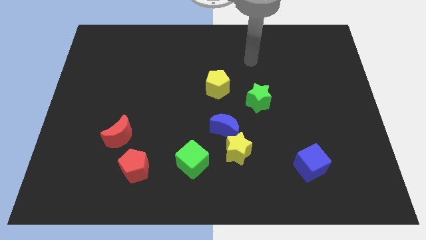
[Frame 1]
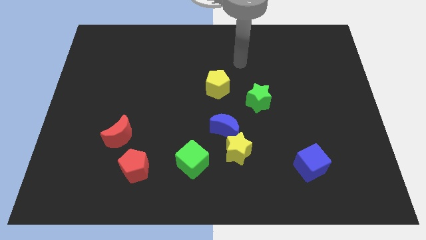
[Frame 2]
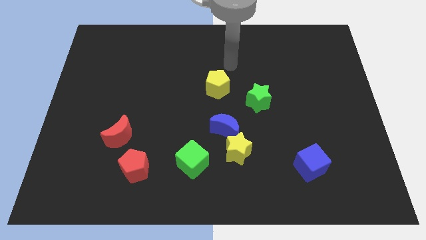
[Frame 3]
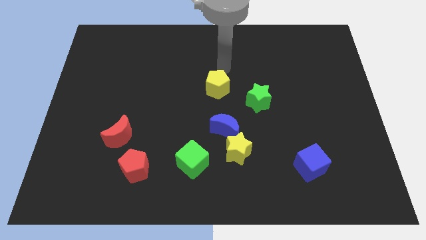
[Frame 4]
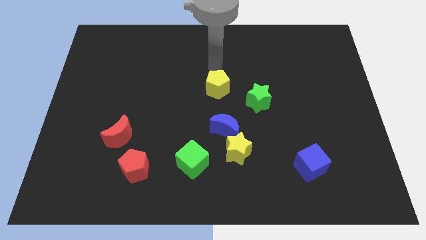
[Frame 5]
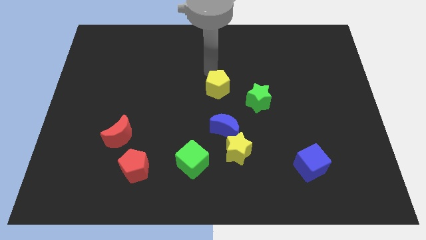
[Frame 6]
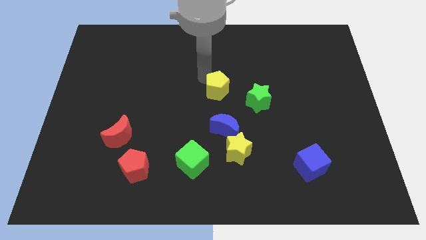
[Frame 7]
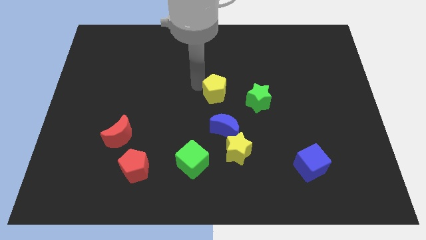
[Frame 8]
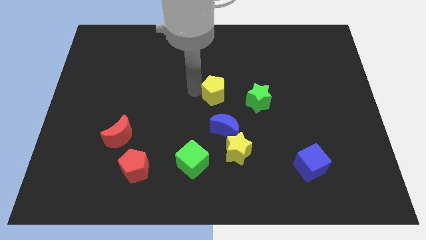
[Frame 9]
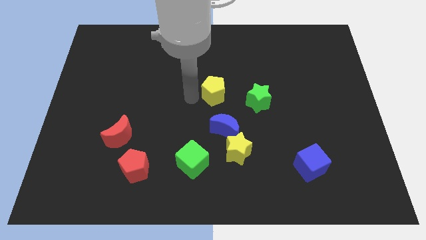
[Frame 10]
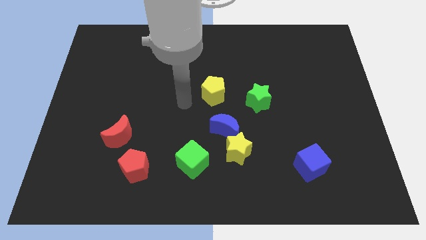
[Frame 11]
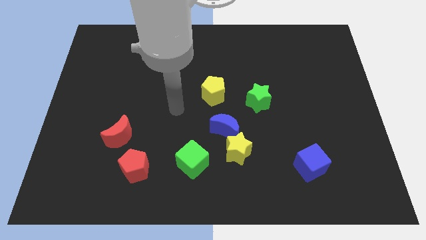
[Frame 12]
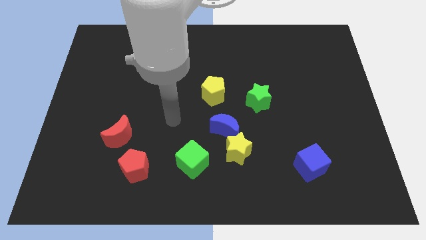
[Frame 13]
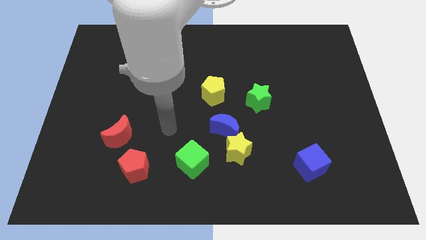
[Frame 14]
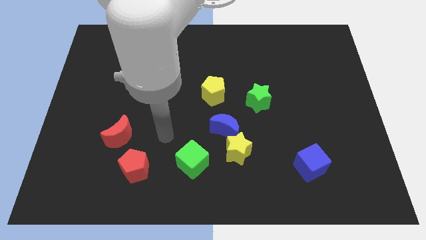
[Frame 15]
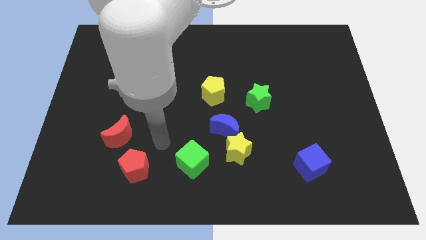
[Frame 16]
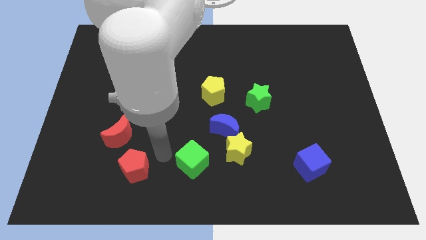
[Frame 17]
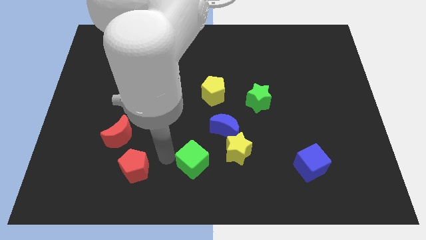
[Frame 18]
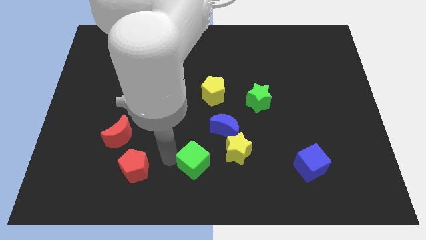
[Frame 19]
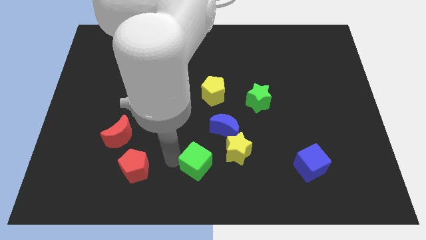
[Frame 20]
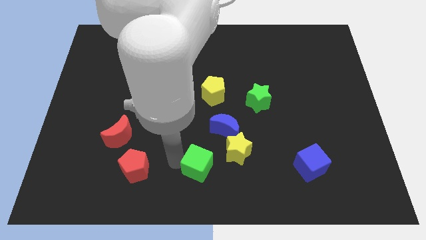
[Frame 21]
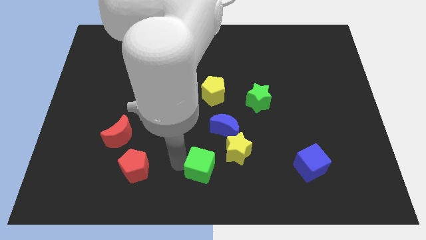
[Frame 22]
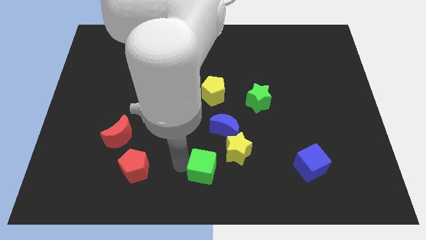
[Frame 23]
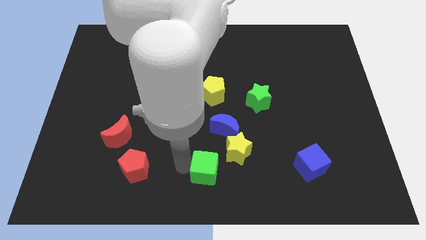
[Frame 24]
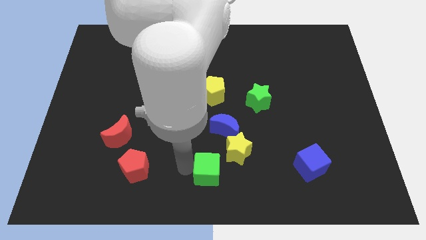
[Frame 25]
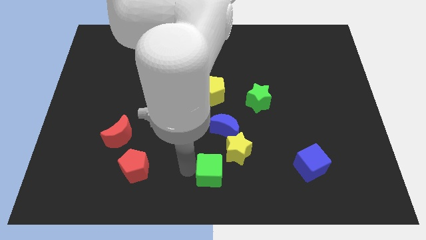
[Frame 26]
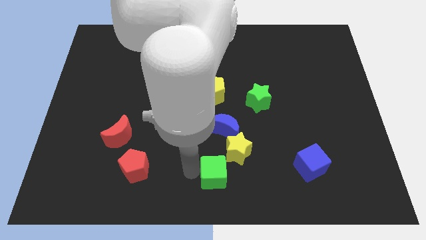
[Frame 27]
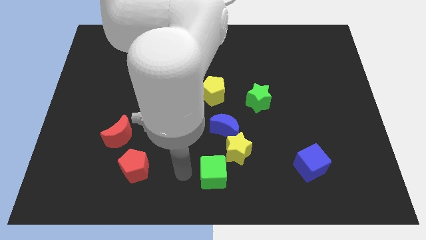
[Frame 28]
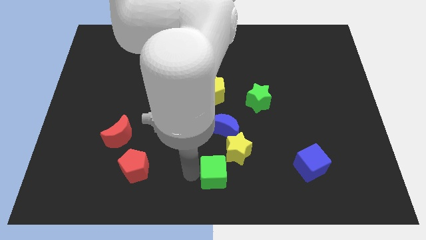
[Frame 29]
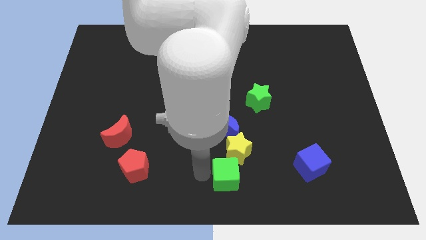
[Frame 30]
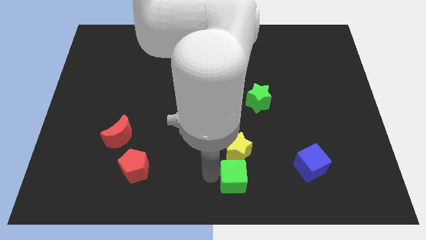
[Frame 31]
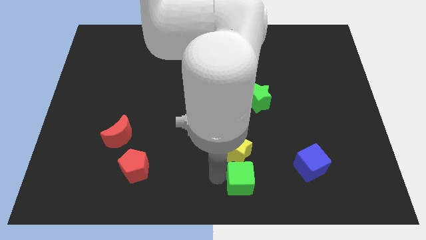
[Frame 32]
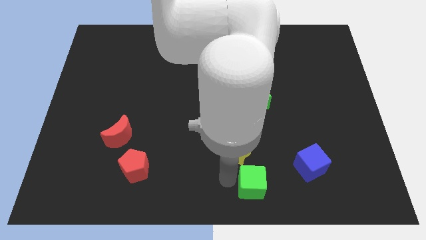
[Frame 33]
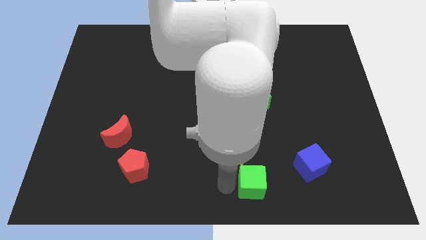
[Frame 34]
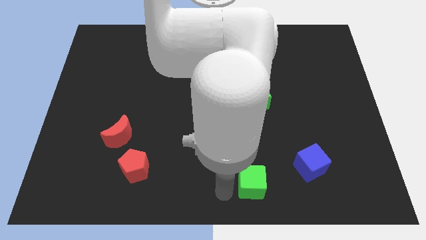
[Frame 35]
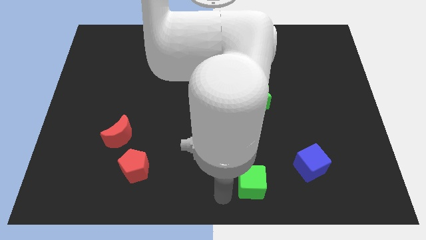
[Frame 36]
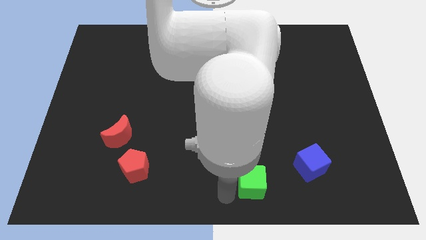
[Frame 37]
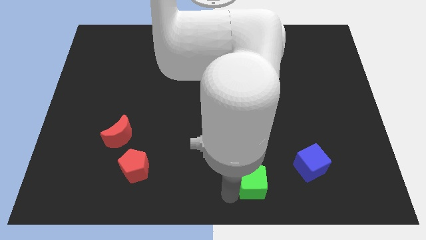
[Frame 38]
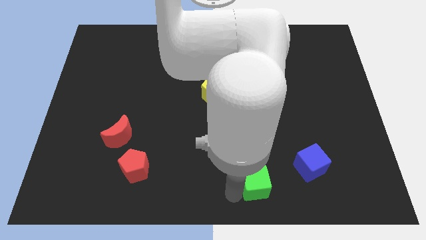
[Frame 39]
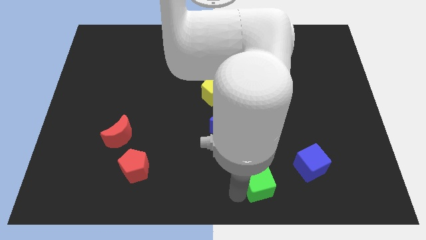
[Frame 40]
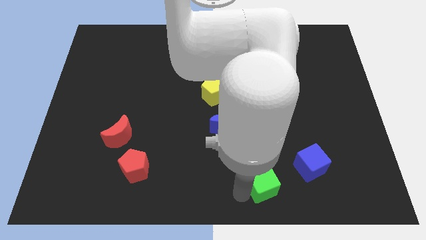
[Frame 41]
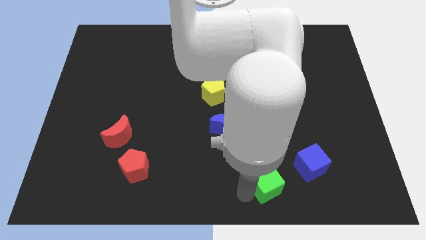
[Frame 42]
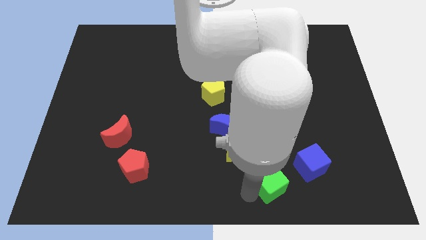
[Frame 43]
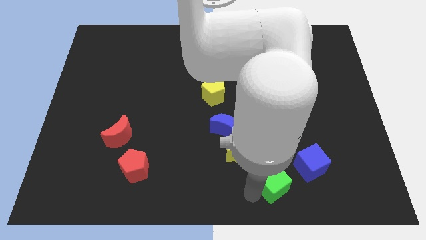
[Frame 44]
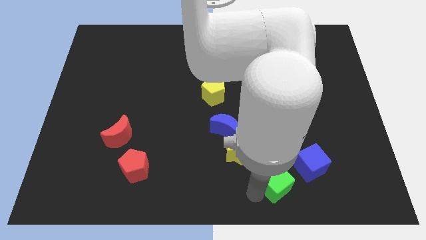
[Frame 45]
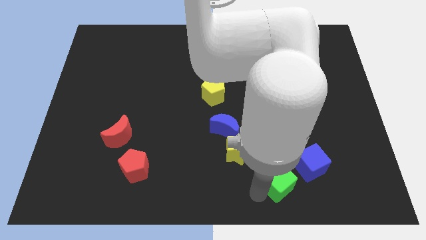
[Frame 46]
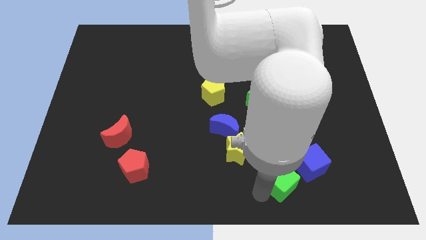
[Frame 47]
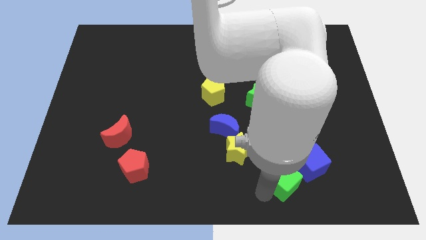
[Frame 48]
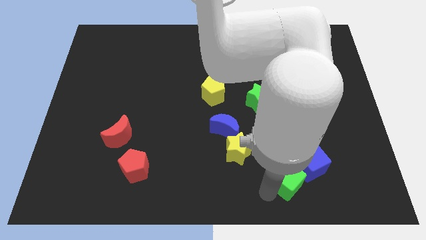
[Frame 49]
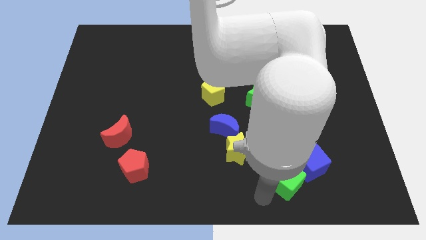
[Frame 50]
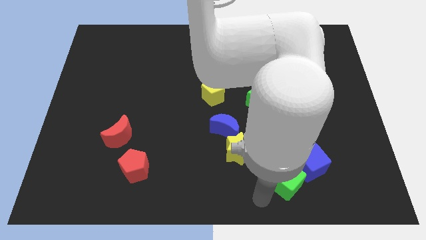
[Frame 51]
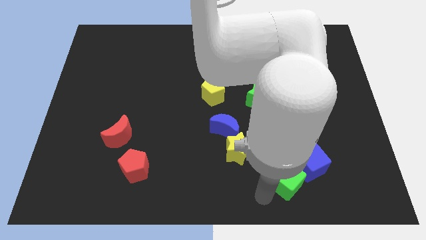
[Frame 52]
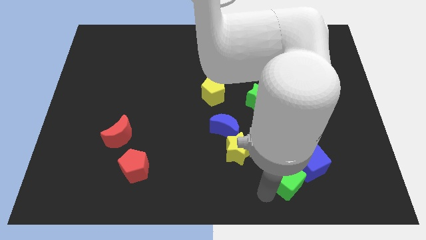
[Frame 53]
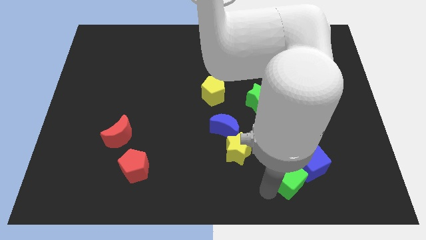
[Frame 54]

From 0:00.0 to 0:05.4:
move the green cube towards the blue cube

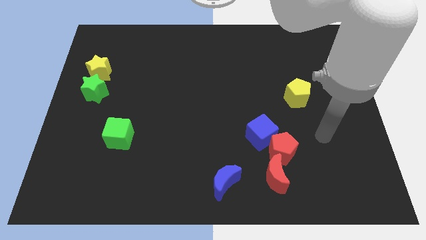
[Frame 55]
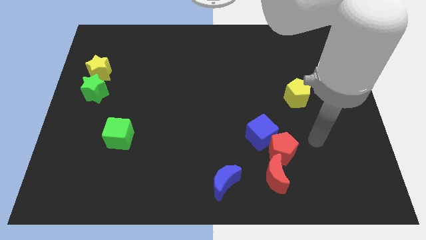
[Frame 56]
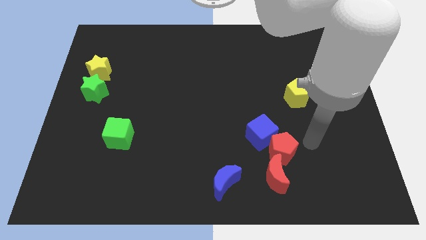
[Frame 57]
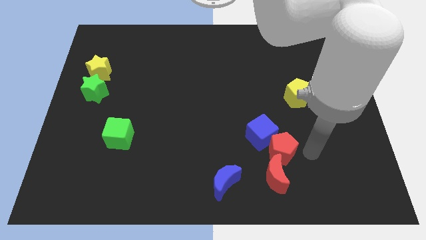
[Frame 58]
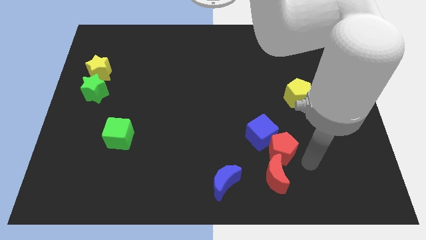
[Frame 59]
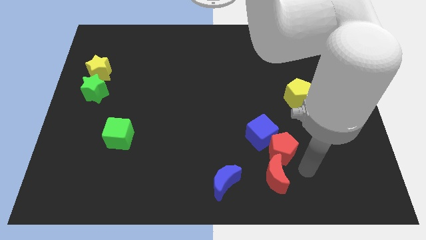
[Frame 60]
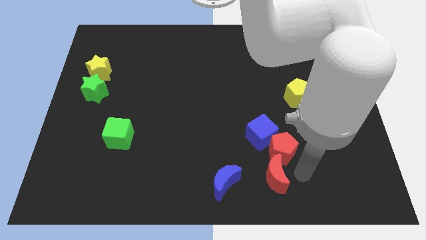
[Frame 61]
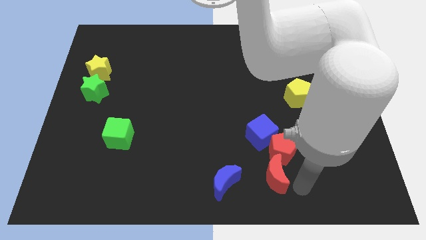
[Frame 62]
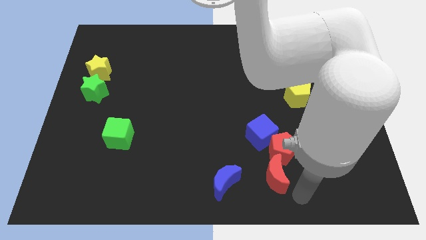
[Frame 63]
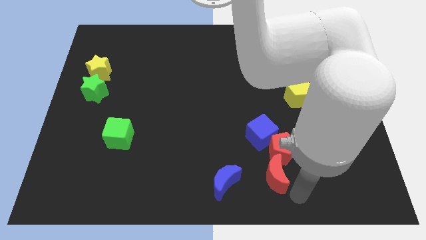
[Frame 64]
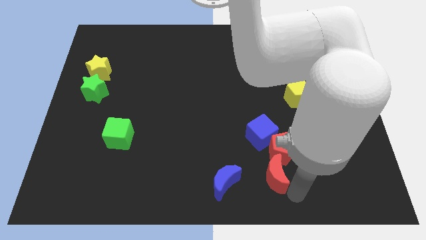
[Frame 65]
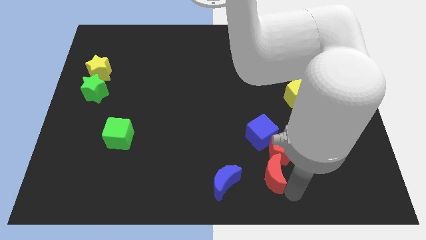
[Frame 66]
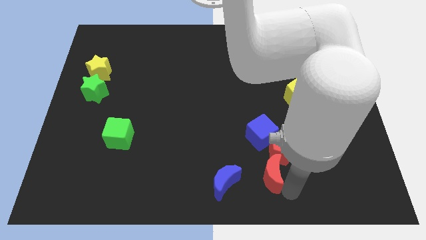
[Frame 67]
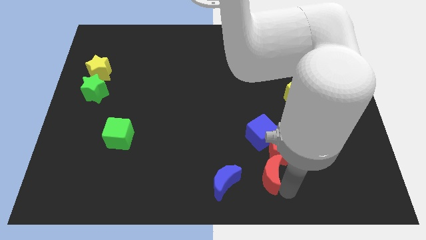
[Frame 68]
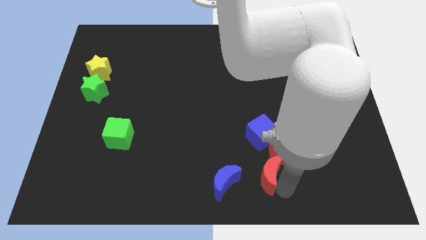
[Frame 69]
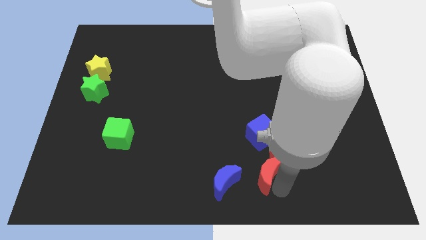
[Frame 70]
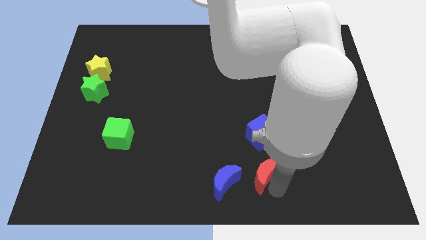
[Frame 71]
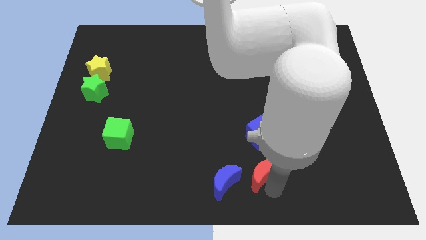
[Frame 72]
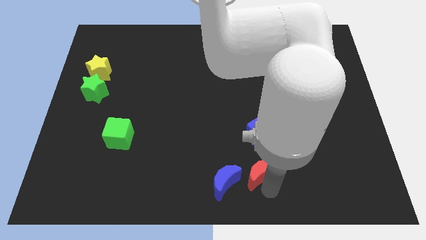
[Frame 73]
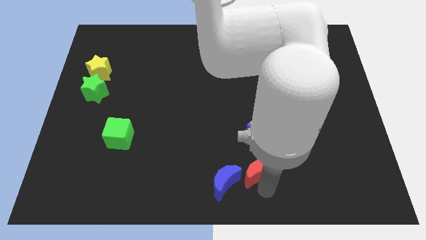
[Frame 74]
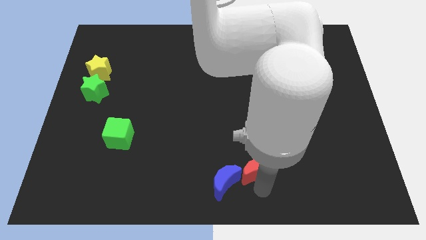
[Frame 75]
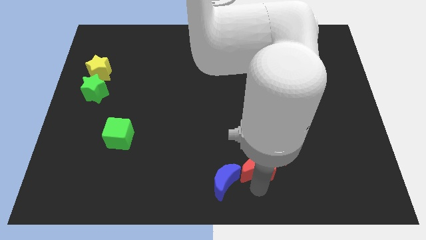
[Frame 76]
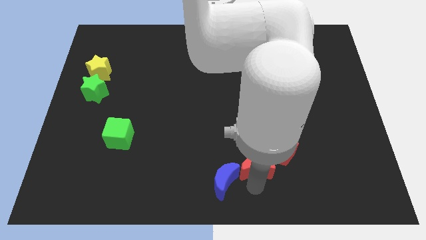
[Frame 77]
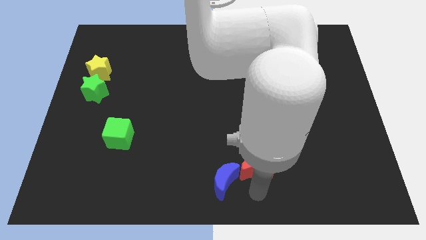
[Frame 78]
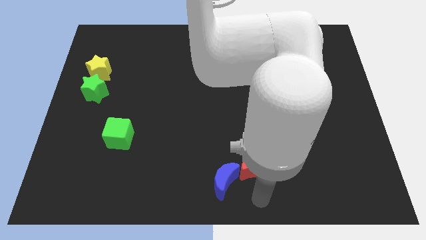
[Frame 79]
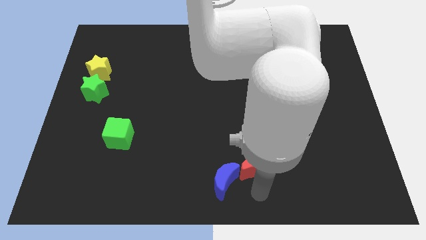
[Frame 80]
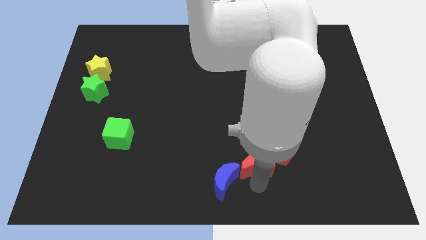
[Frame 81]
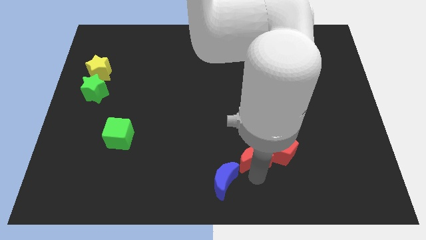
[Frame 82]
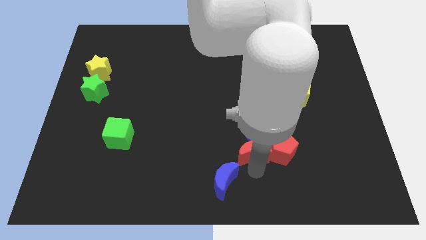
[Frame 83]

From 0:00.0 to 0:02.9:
move the red moon to the blue cube
